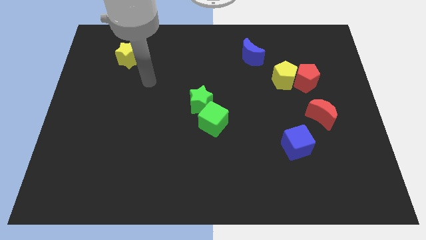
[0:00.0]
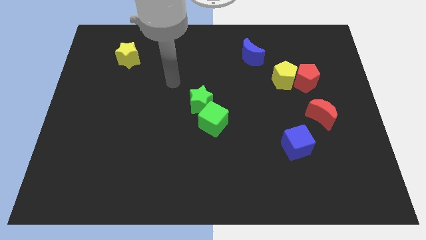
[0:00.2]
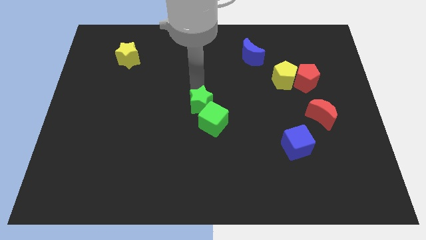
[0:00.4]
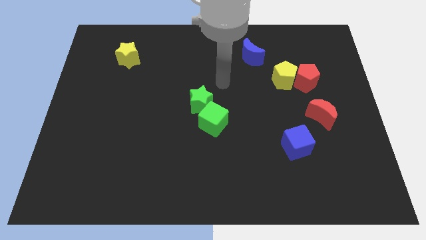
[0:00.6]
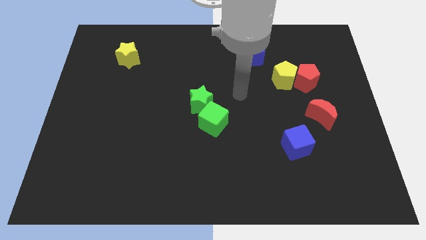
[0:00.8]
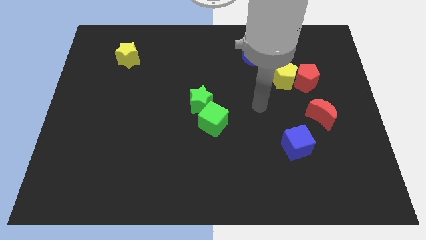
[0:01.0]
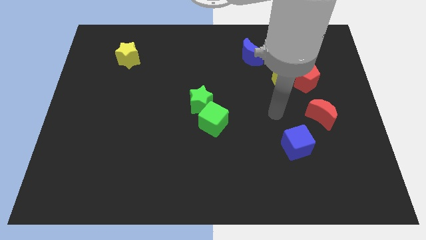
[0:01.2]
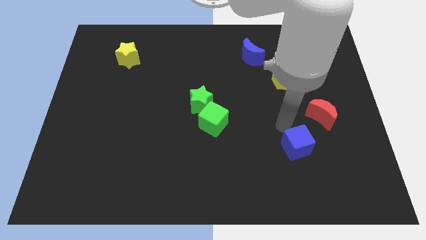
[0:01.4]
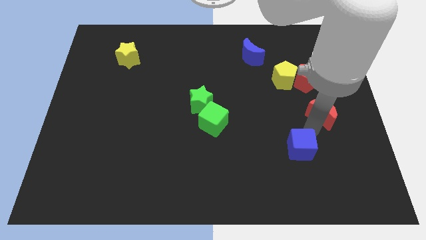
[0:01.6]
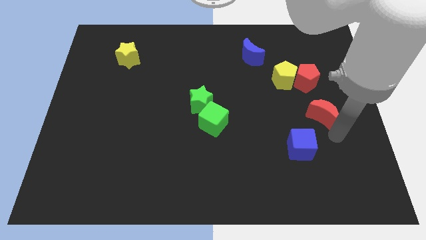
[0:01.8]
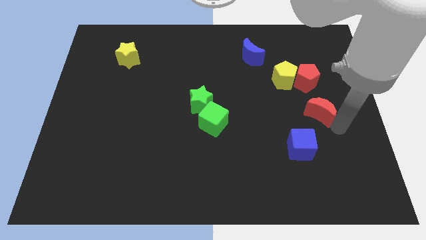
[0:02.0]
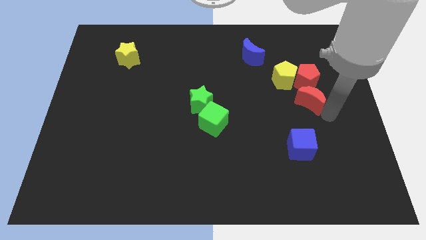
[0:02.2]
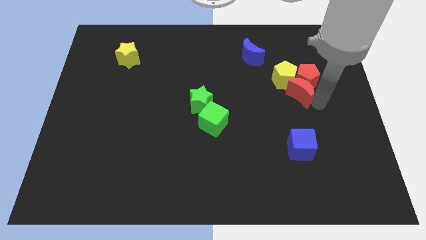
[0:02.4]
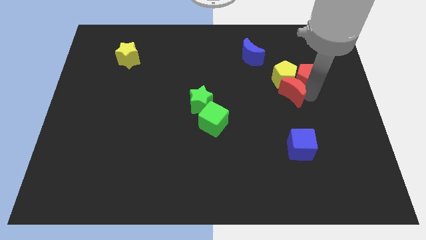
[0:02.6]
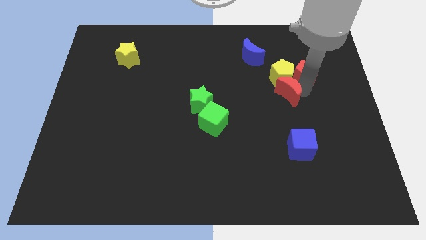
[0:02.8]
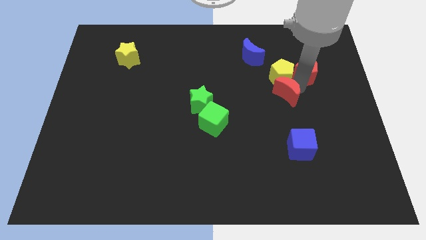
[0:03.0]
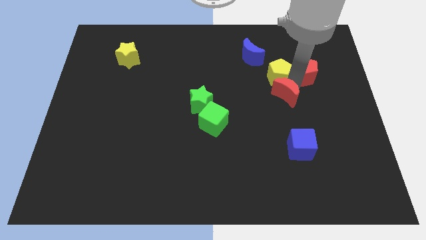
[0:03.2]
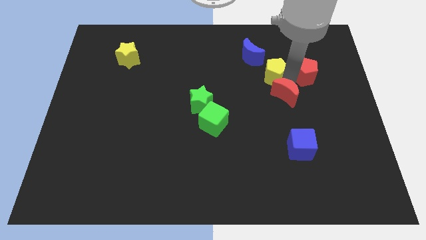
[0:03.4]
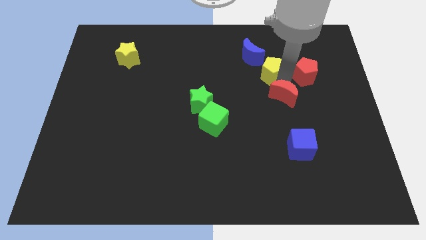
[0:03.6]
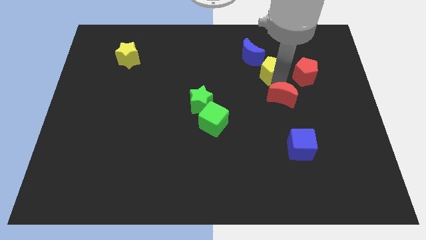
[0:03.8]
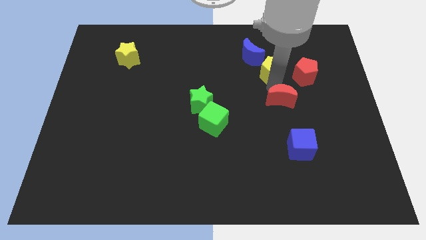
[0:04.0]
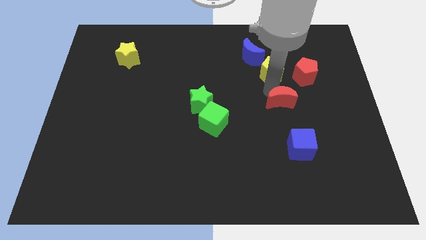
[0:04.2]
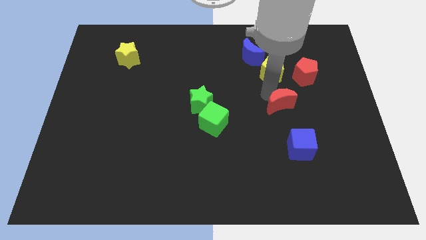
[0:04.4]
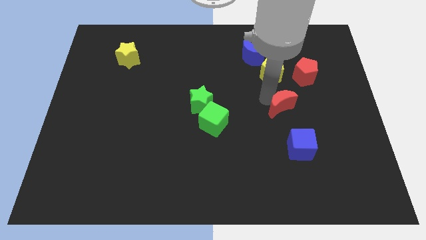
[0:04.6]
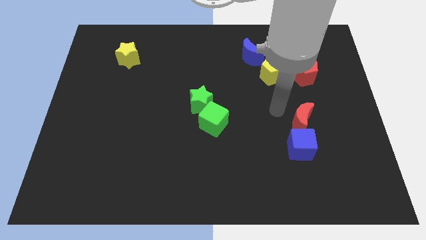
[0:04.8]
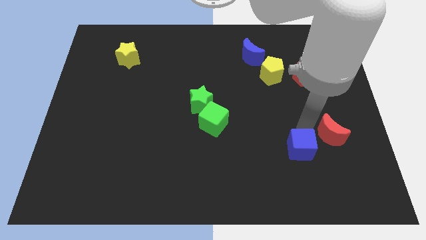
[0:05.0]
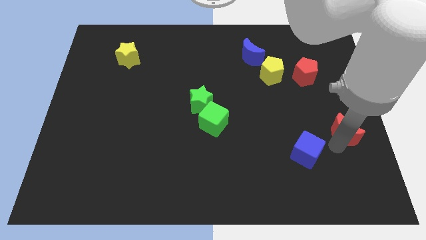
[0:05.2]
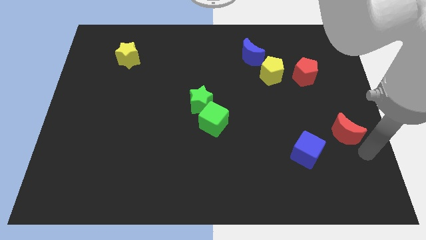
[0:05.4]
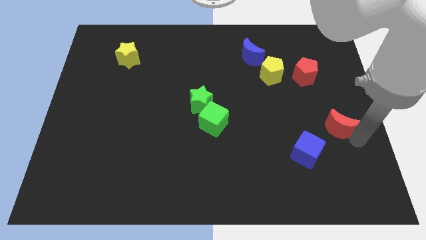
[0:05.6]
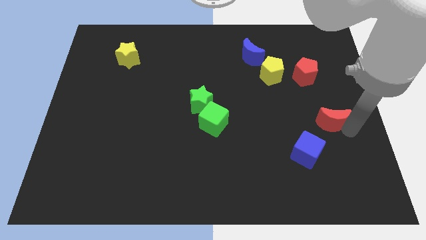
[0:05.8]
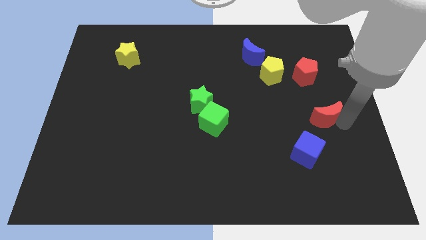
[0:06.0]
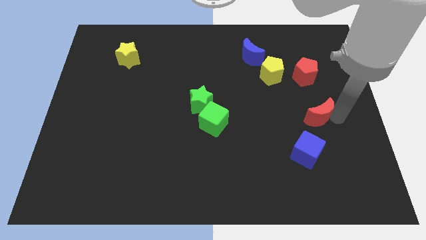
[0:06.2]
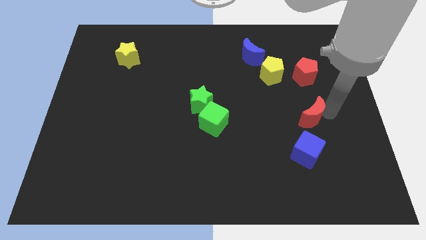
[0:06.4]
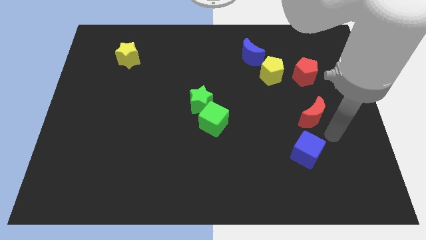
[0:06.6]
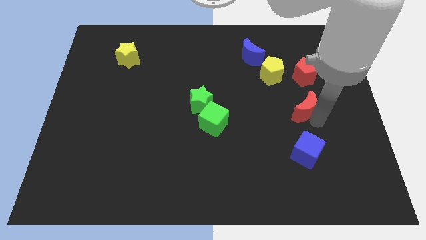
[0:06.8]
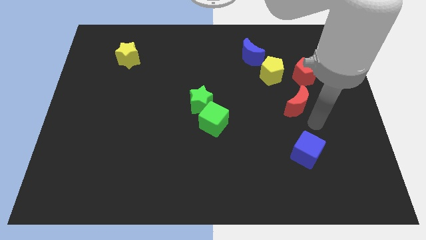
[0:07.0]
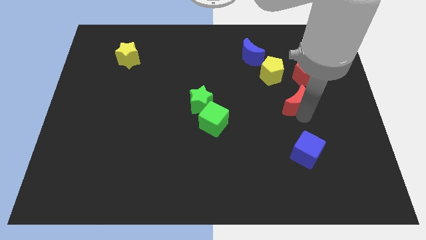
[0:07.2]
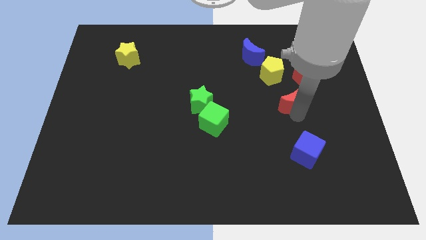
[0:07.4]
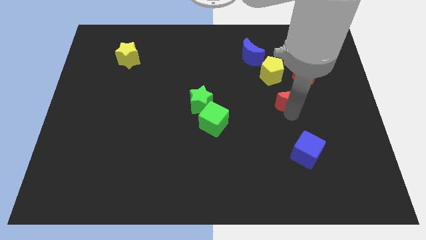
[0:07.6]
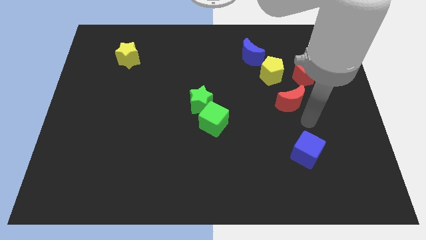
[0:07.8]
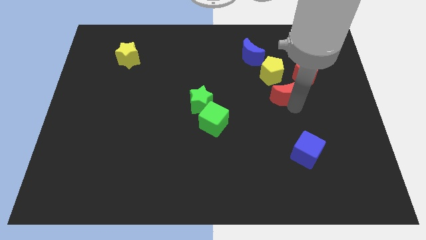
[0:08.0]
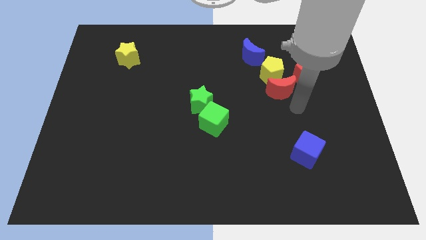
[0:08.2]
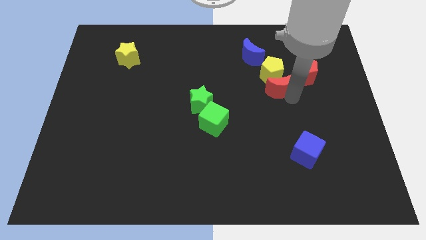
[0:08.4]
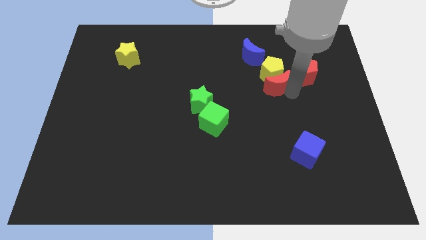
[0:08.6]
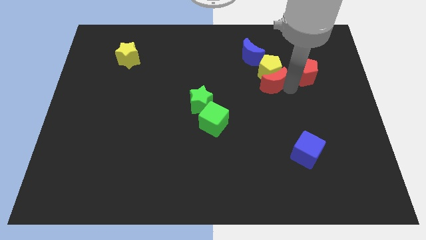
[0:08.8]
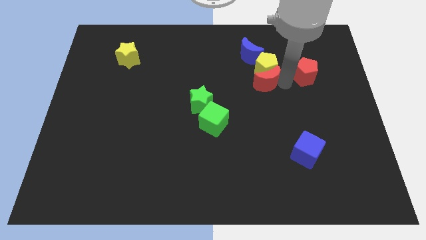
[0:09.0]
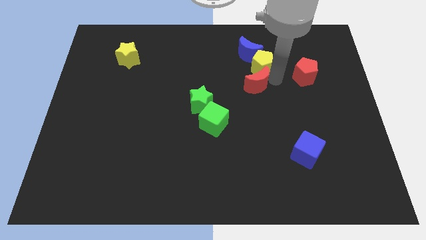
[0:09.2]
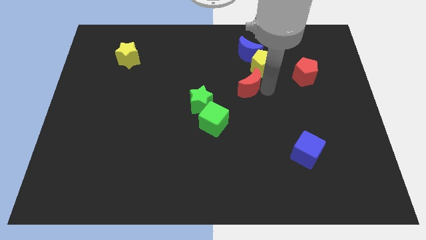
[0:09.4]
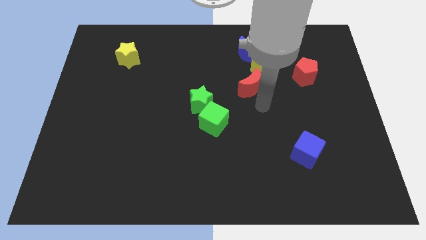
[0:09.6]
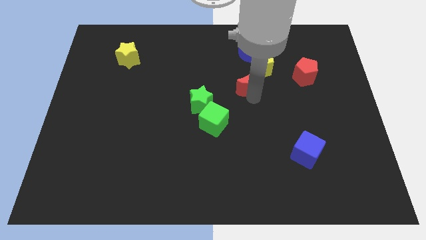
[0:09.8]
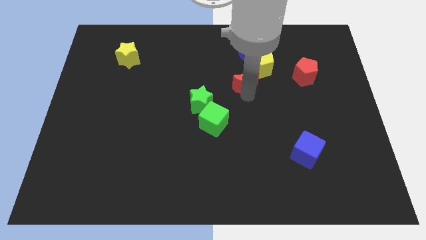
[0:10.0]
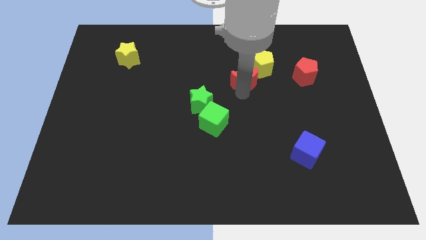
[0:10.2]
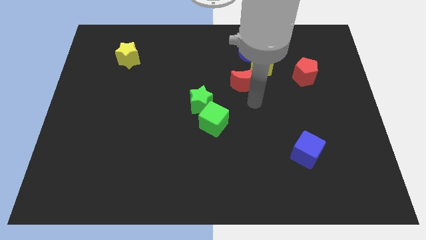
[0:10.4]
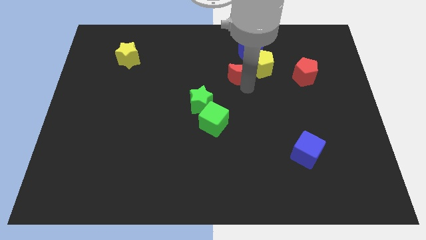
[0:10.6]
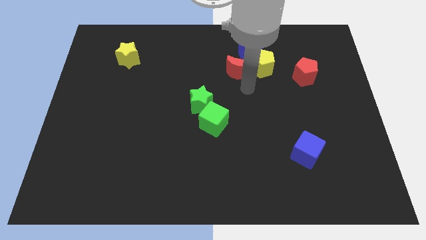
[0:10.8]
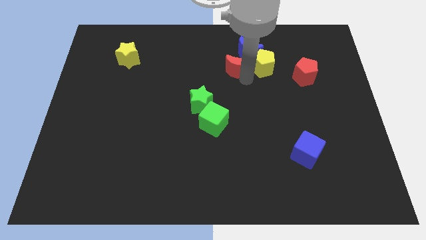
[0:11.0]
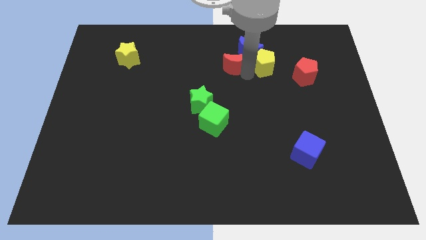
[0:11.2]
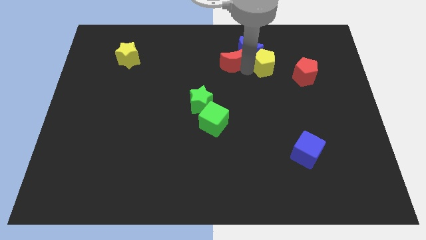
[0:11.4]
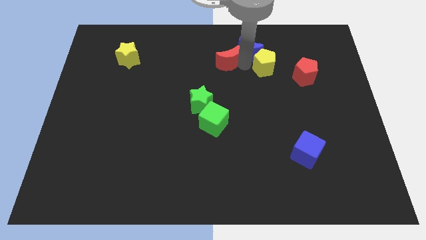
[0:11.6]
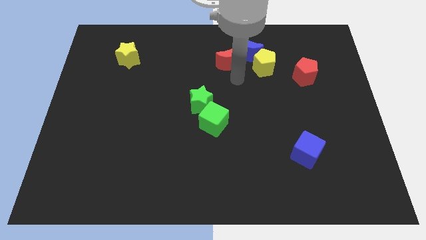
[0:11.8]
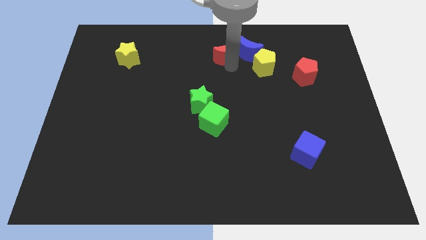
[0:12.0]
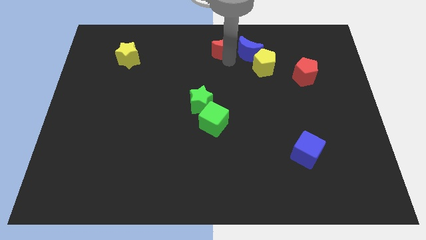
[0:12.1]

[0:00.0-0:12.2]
slide the red moon to the towards your base
